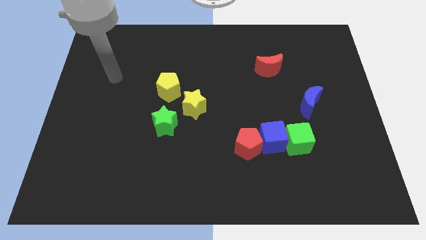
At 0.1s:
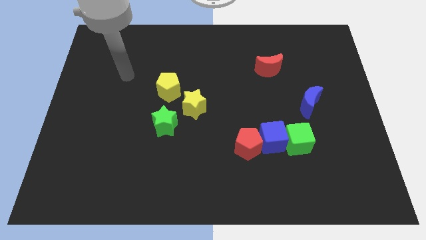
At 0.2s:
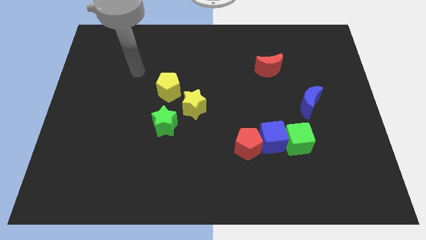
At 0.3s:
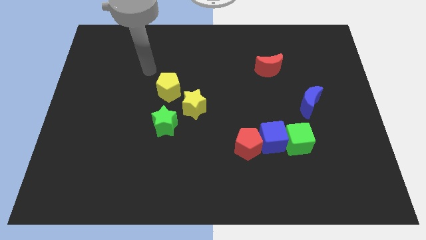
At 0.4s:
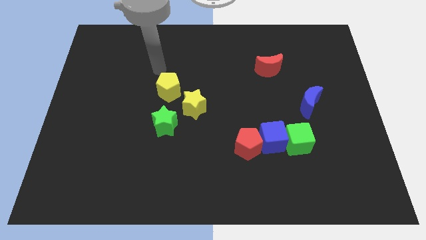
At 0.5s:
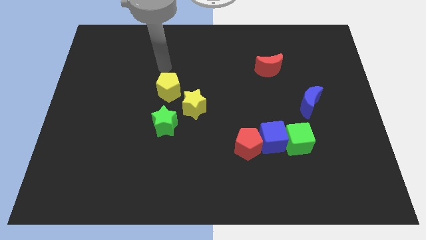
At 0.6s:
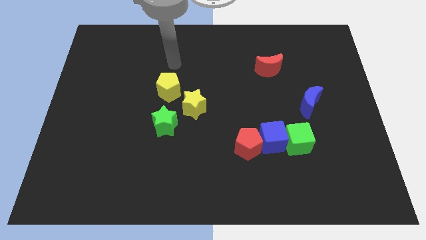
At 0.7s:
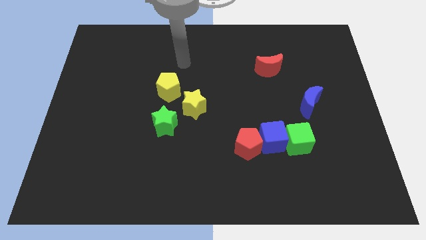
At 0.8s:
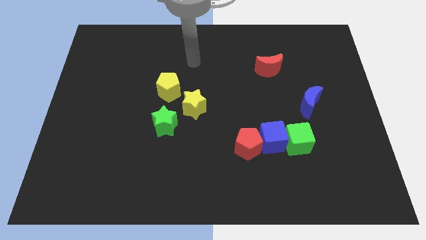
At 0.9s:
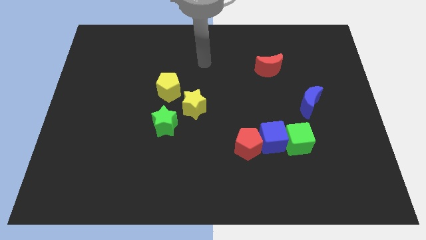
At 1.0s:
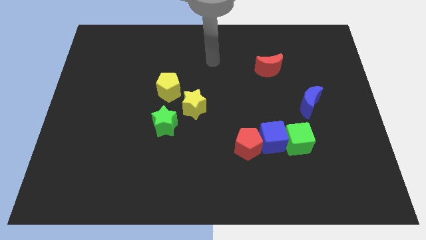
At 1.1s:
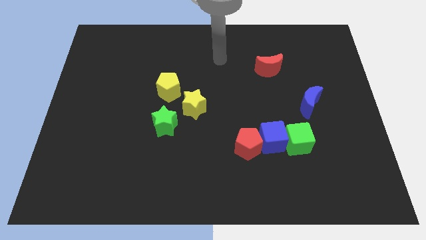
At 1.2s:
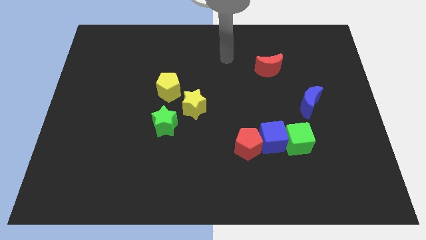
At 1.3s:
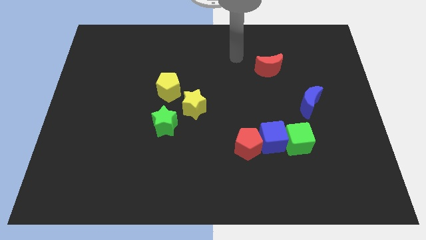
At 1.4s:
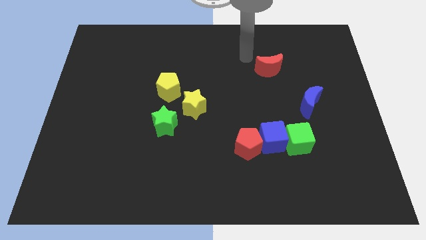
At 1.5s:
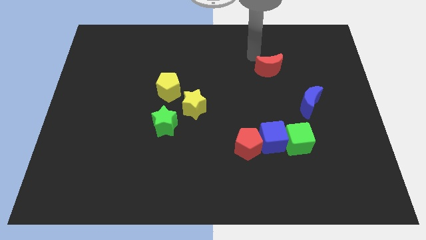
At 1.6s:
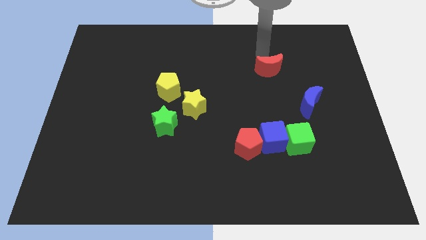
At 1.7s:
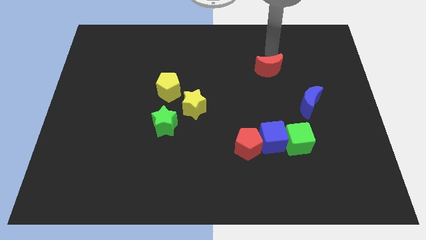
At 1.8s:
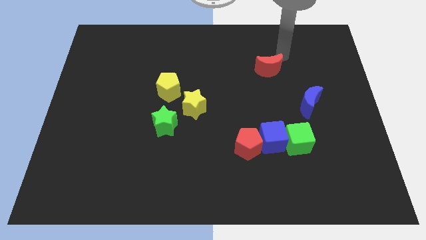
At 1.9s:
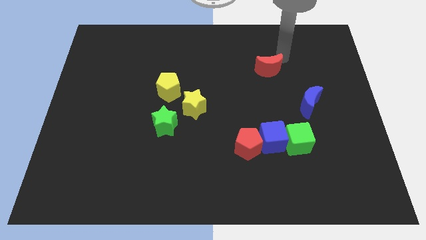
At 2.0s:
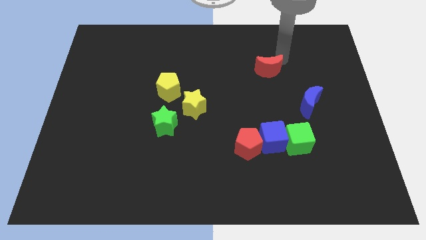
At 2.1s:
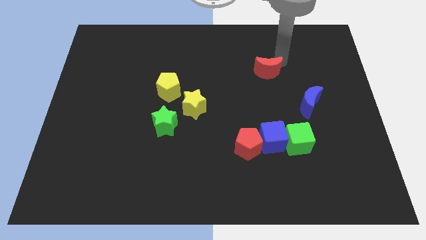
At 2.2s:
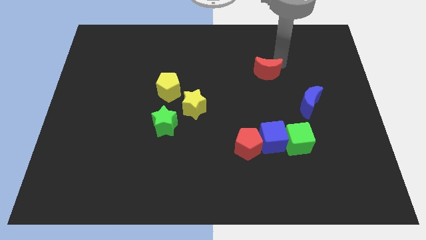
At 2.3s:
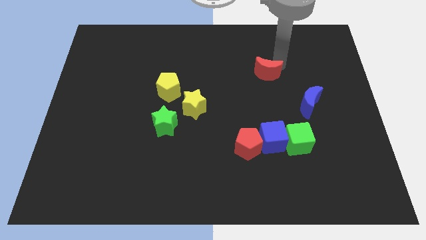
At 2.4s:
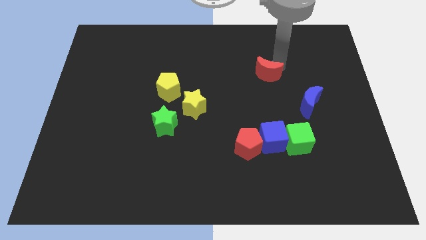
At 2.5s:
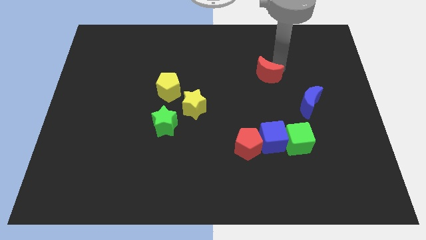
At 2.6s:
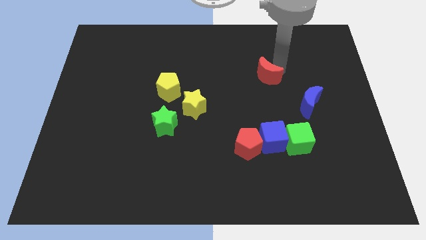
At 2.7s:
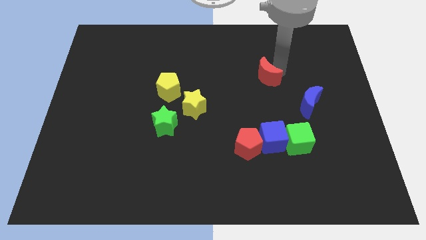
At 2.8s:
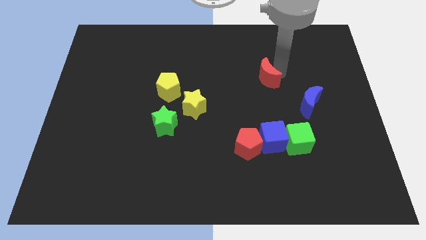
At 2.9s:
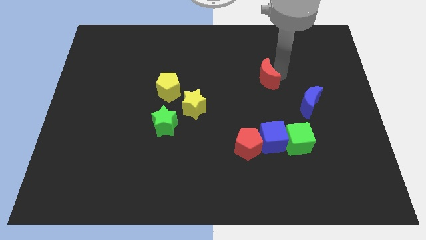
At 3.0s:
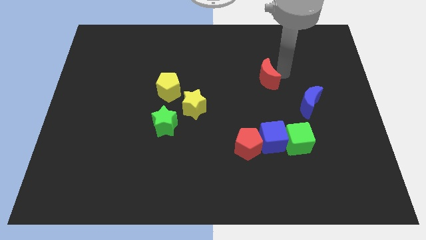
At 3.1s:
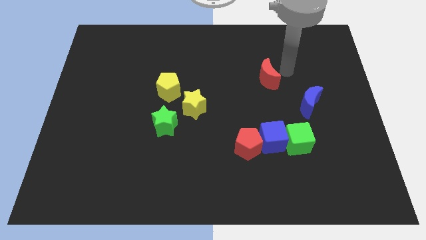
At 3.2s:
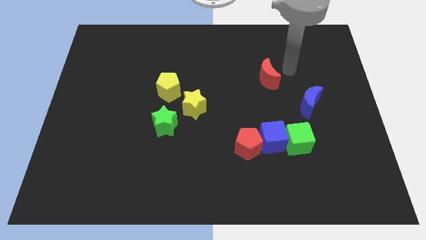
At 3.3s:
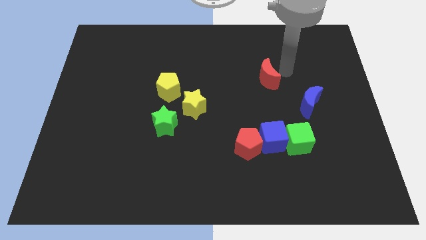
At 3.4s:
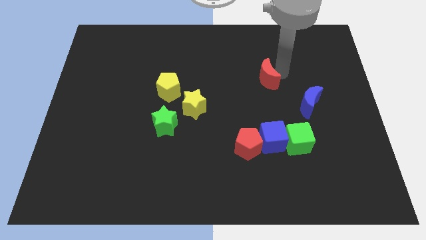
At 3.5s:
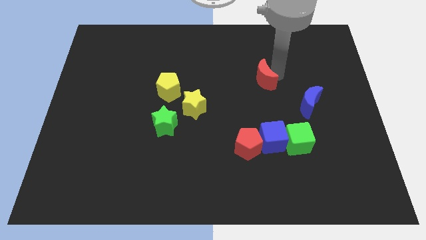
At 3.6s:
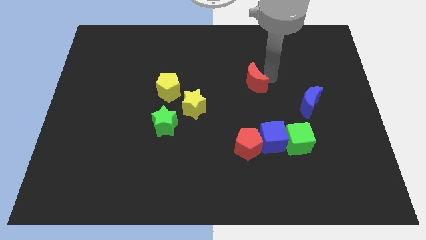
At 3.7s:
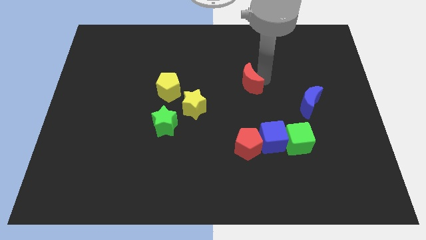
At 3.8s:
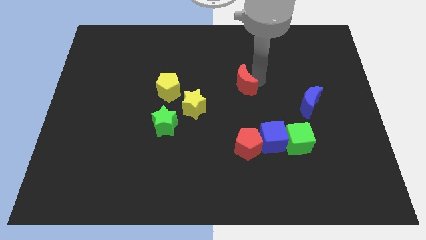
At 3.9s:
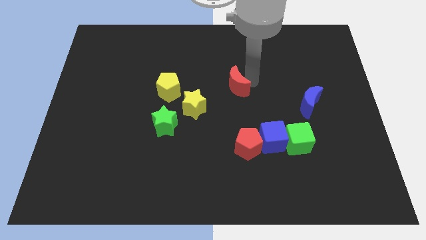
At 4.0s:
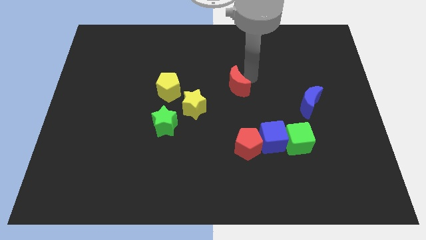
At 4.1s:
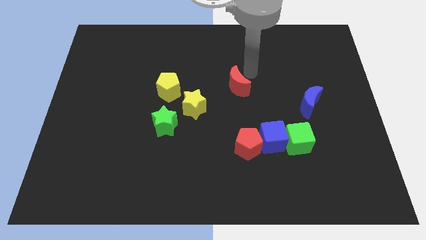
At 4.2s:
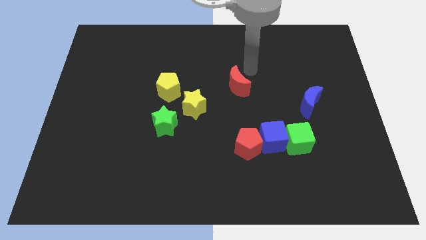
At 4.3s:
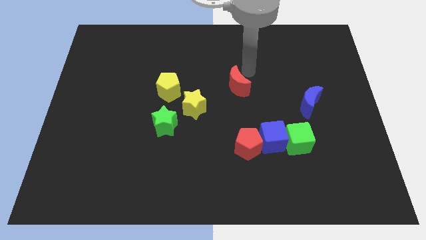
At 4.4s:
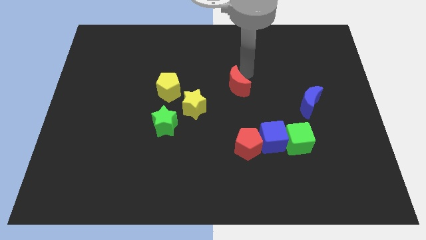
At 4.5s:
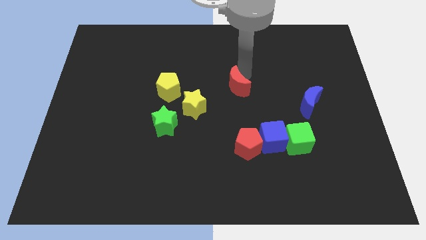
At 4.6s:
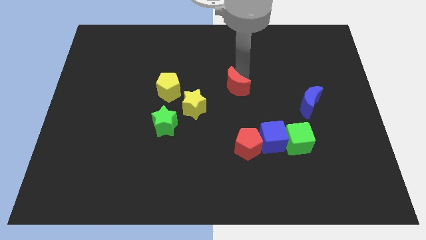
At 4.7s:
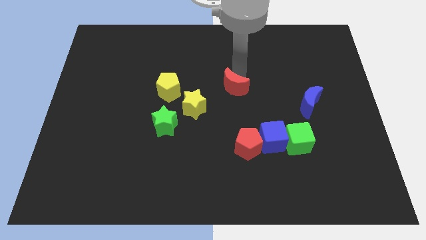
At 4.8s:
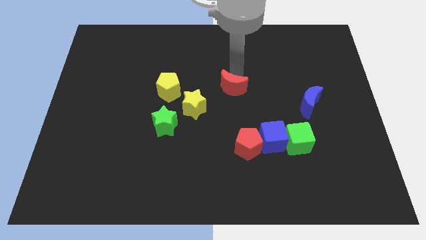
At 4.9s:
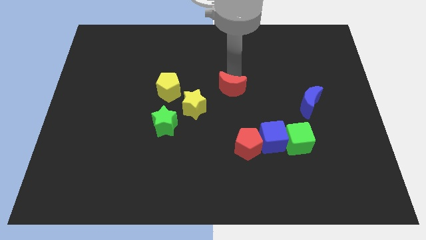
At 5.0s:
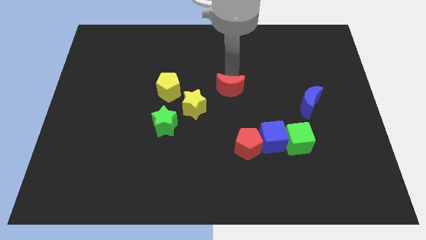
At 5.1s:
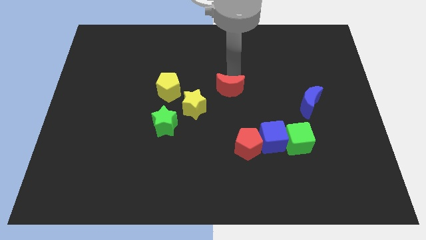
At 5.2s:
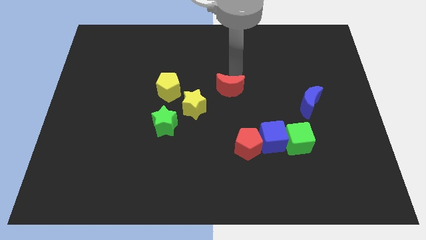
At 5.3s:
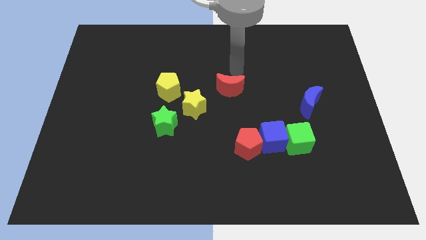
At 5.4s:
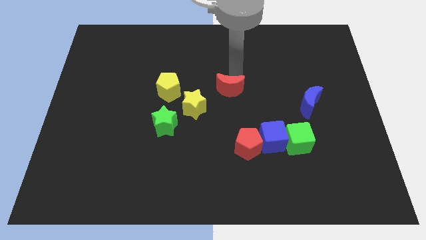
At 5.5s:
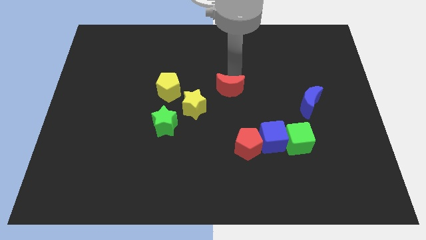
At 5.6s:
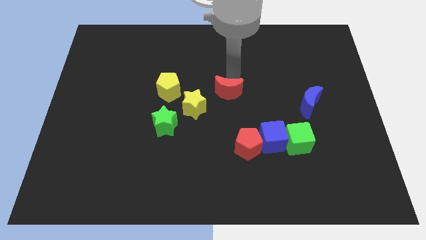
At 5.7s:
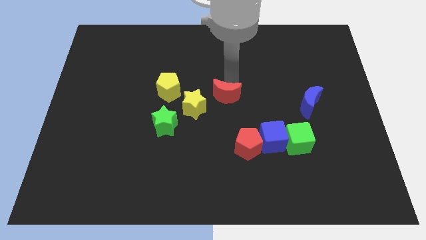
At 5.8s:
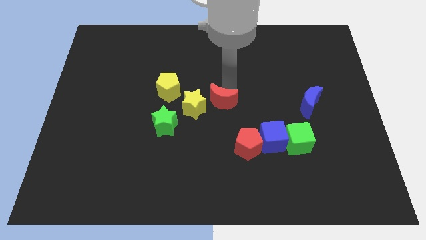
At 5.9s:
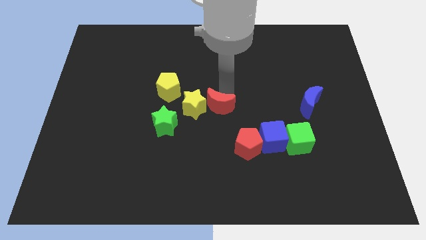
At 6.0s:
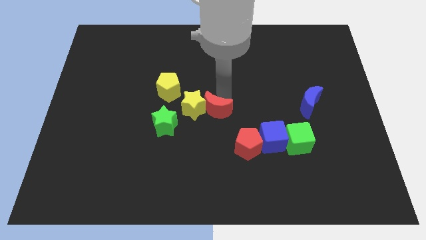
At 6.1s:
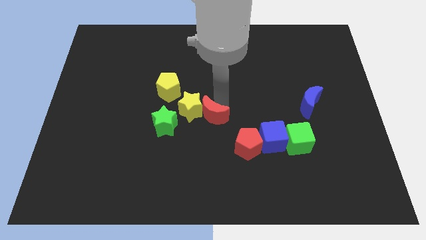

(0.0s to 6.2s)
push the red moon diagonally downwards and to the left

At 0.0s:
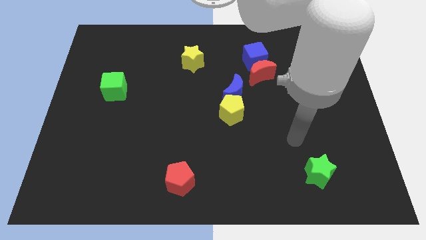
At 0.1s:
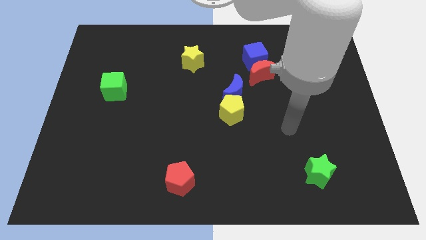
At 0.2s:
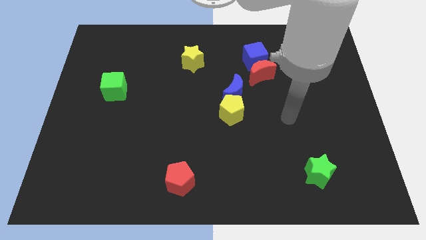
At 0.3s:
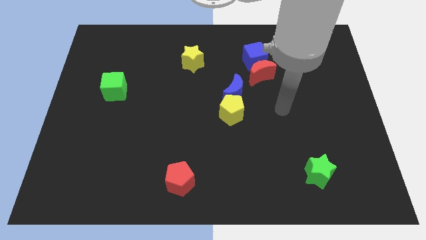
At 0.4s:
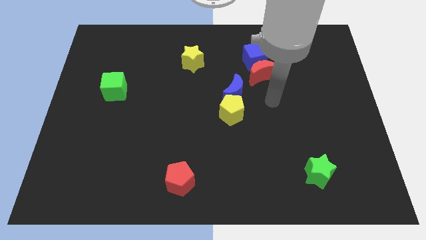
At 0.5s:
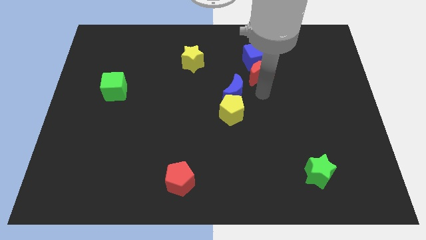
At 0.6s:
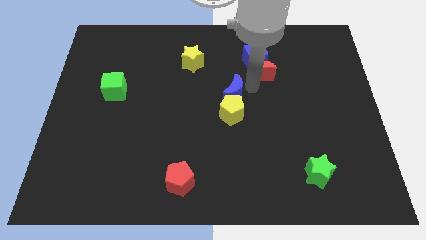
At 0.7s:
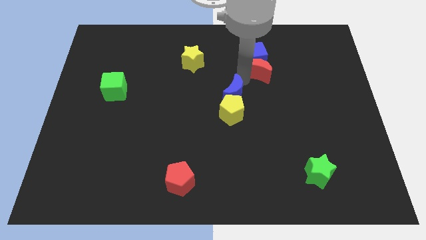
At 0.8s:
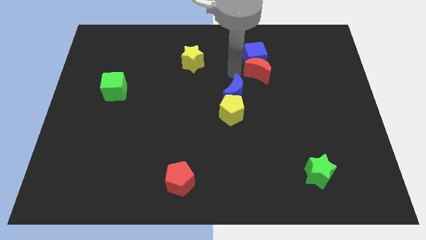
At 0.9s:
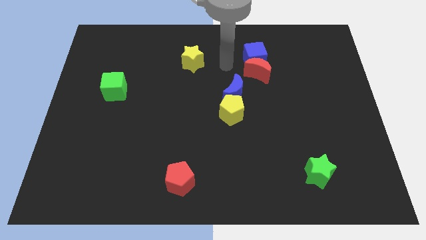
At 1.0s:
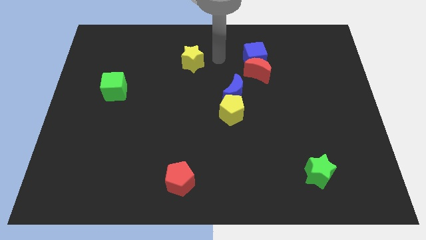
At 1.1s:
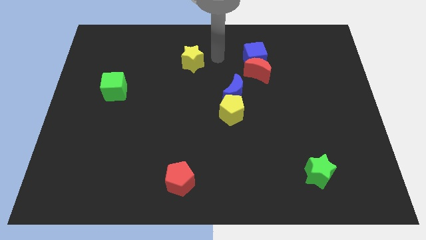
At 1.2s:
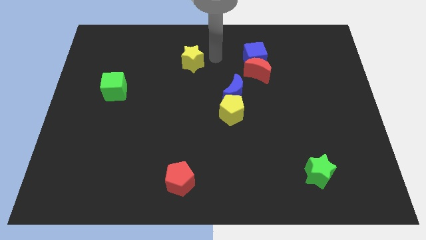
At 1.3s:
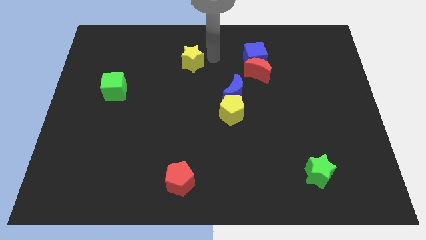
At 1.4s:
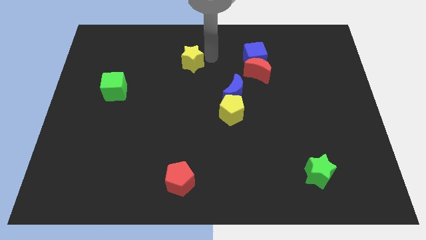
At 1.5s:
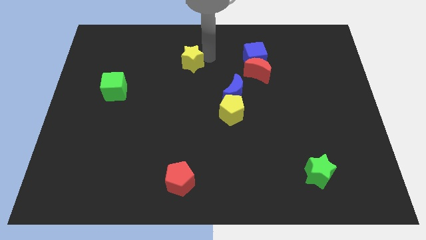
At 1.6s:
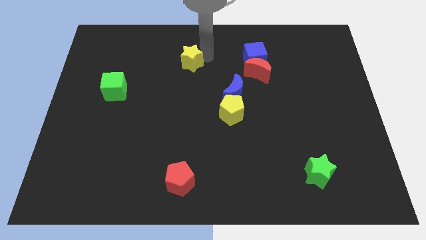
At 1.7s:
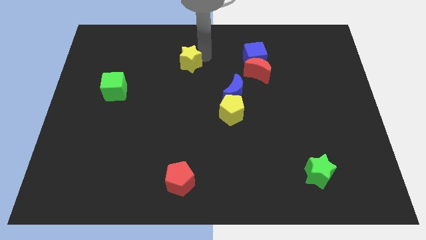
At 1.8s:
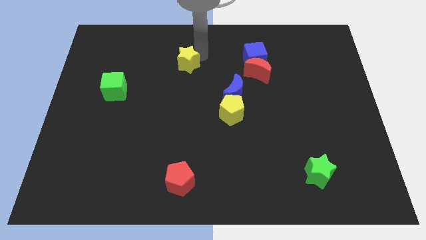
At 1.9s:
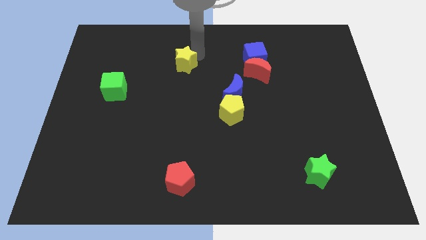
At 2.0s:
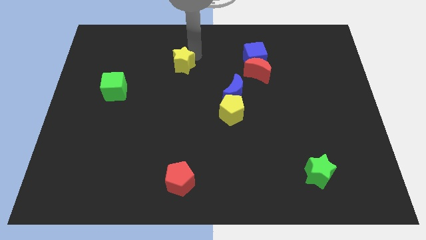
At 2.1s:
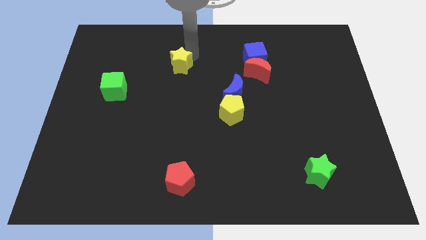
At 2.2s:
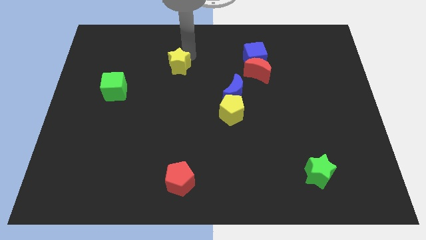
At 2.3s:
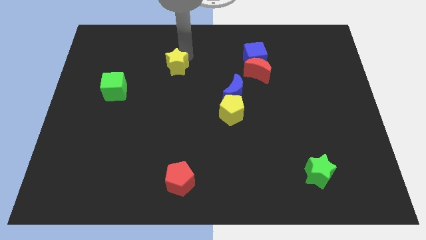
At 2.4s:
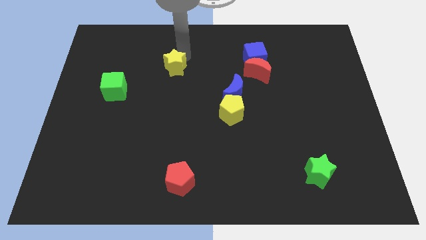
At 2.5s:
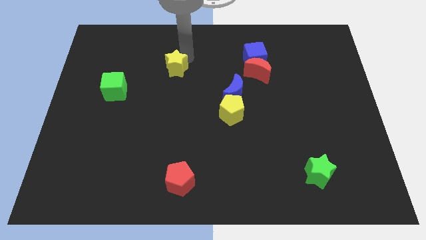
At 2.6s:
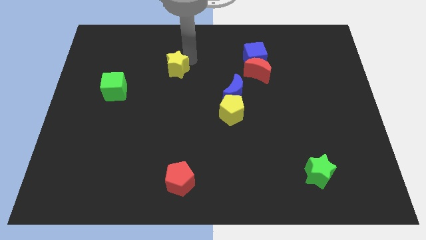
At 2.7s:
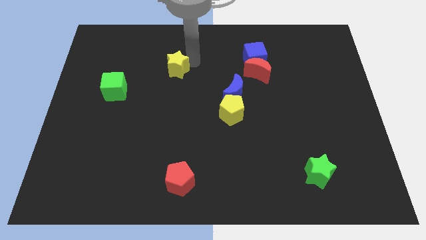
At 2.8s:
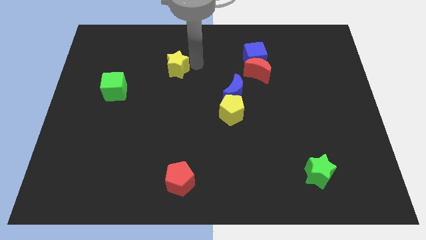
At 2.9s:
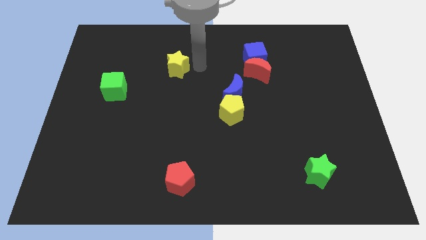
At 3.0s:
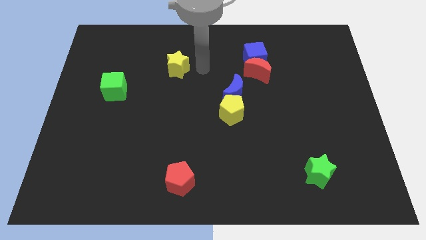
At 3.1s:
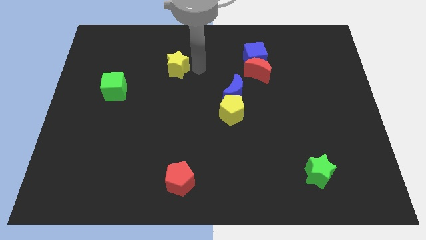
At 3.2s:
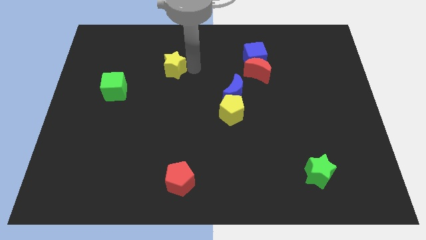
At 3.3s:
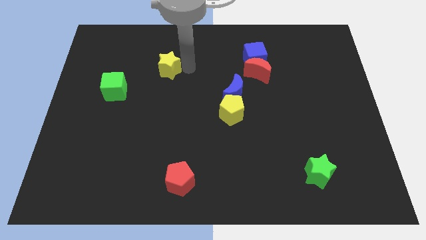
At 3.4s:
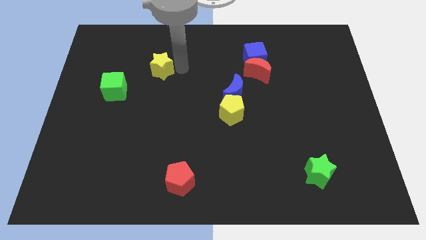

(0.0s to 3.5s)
slightly slide the yellow star left
